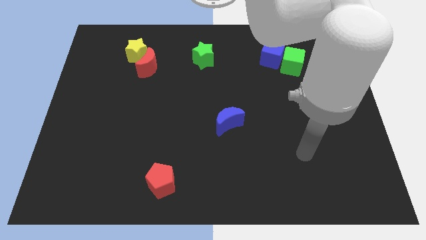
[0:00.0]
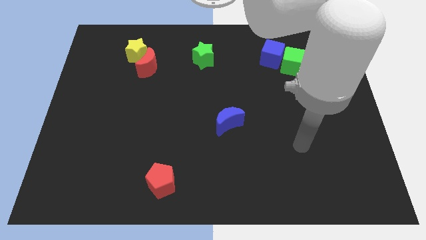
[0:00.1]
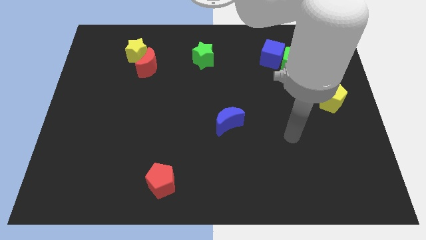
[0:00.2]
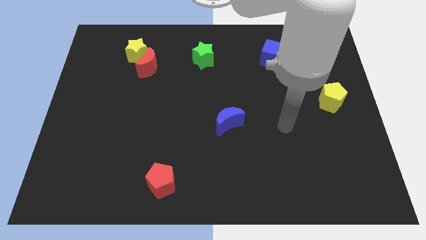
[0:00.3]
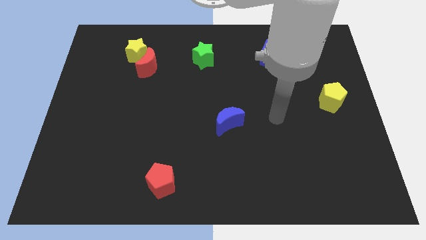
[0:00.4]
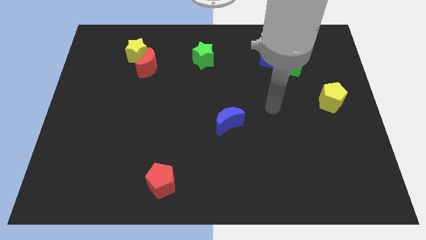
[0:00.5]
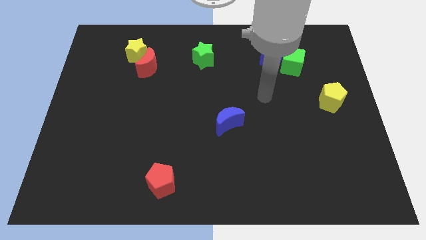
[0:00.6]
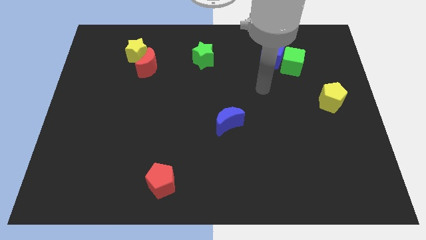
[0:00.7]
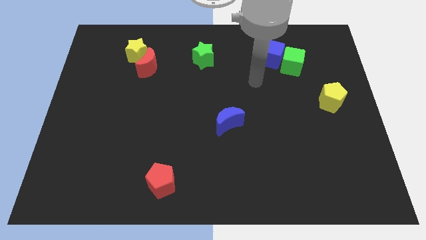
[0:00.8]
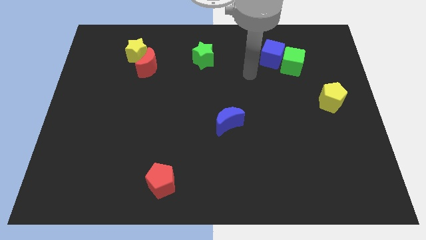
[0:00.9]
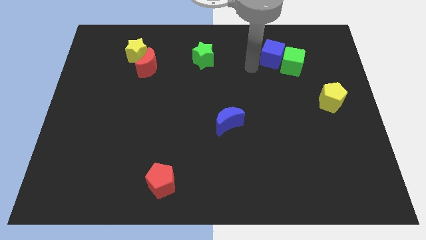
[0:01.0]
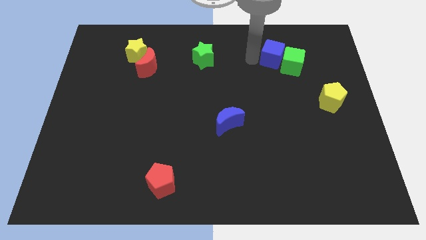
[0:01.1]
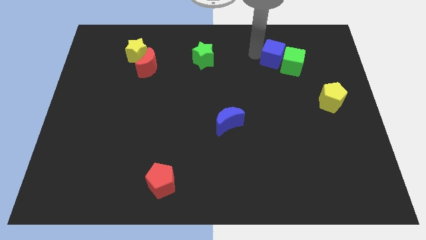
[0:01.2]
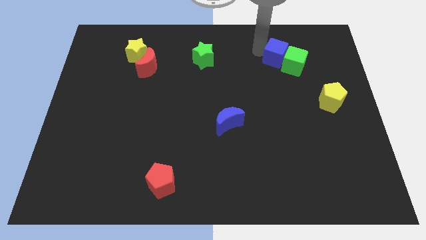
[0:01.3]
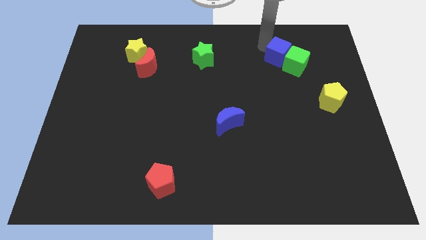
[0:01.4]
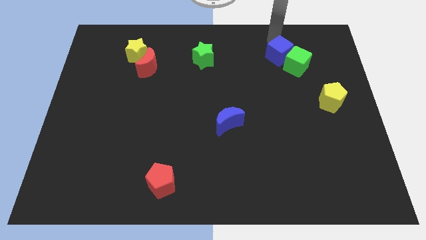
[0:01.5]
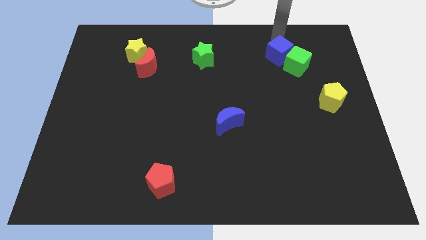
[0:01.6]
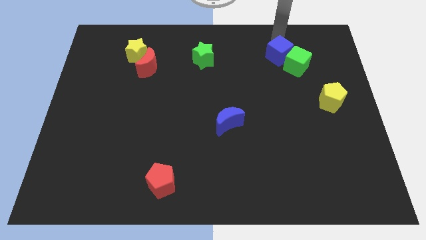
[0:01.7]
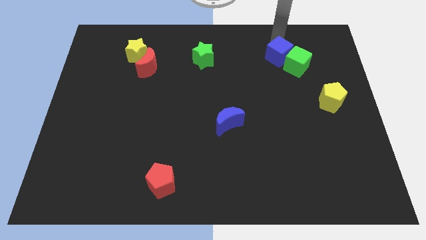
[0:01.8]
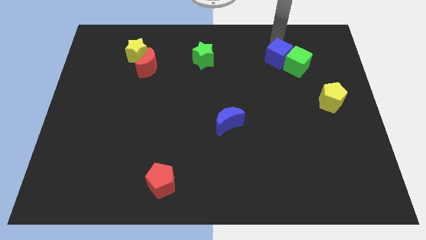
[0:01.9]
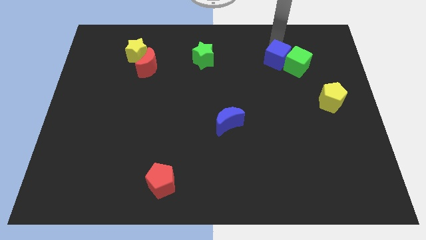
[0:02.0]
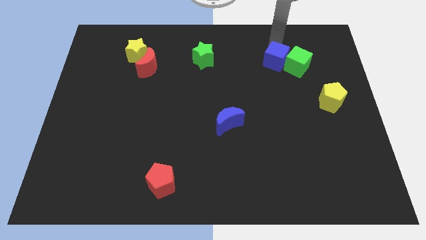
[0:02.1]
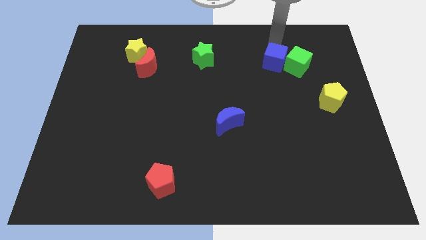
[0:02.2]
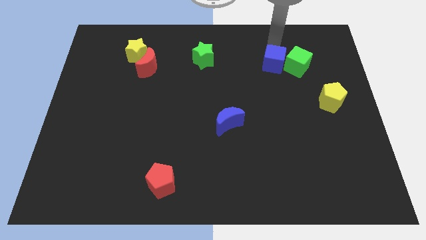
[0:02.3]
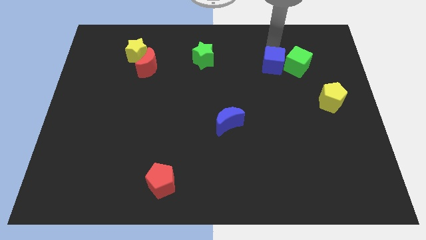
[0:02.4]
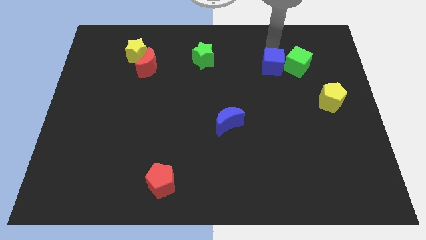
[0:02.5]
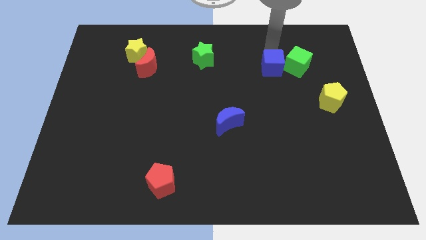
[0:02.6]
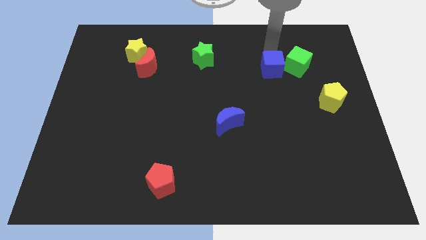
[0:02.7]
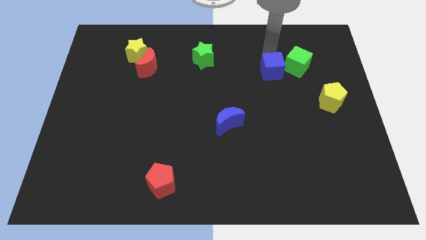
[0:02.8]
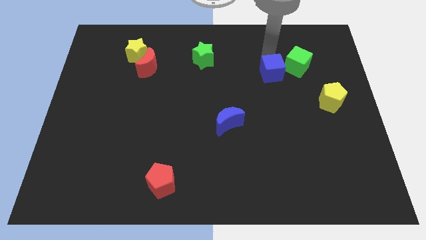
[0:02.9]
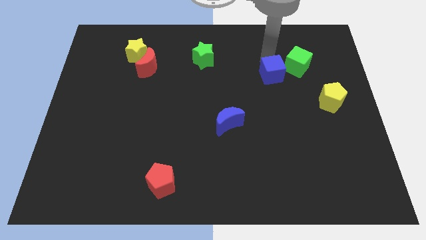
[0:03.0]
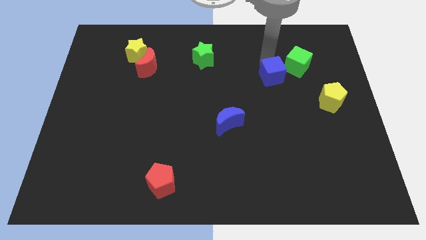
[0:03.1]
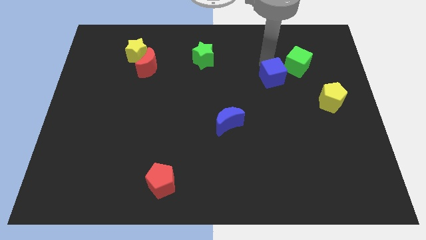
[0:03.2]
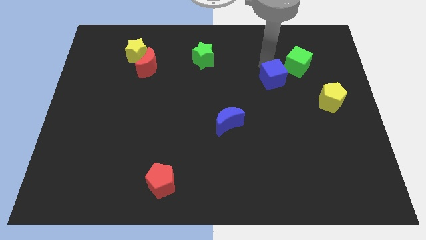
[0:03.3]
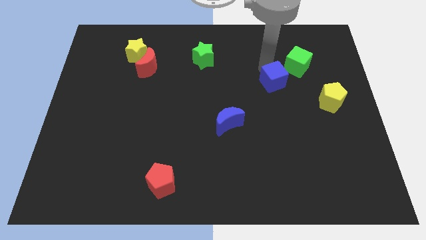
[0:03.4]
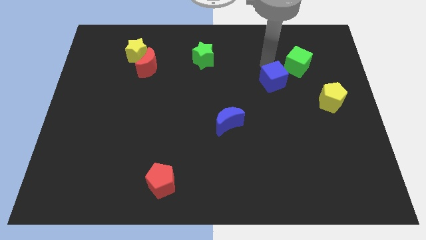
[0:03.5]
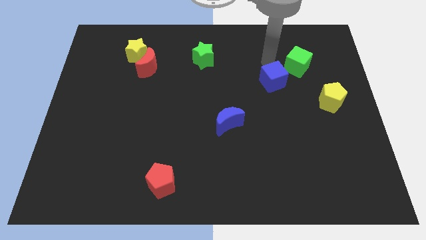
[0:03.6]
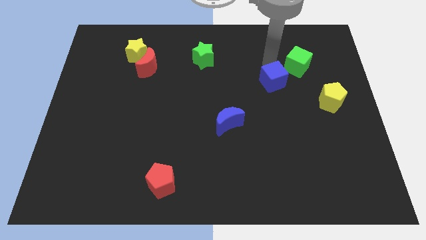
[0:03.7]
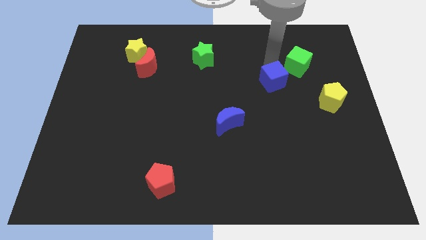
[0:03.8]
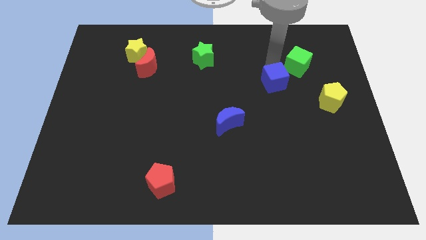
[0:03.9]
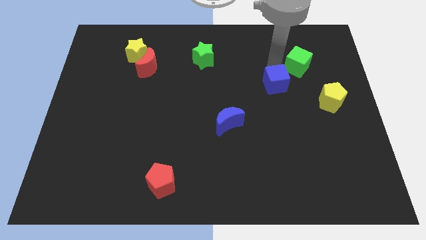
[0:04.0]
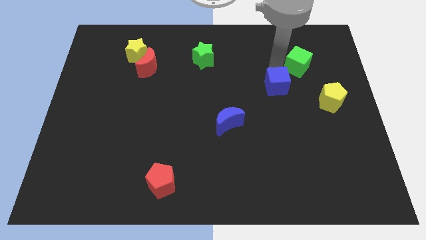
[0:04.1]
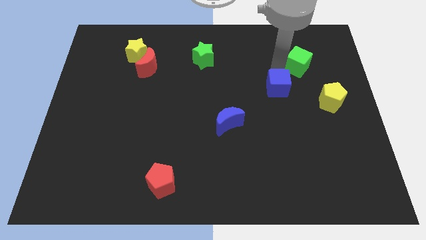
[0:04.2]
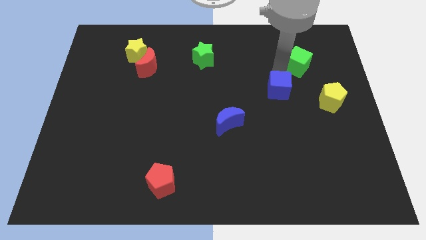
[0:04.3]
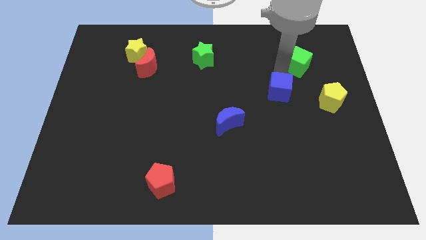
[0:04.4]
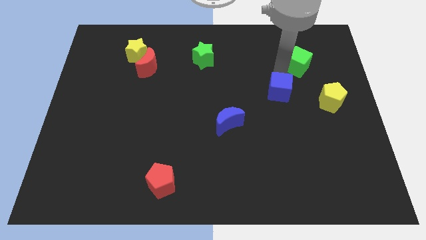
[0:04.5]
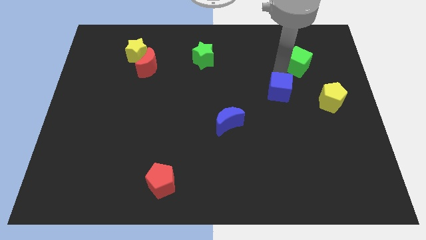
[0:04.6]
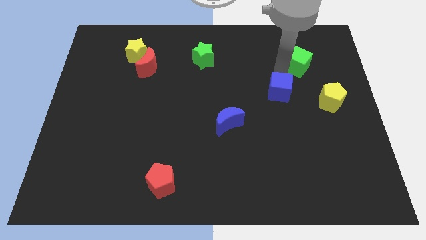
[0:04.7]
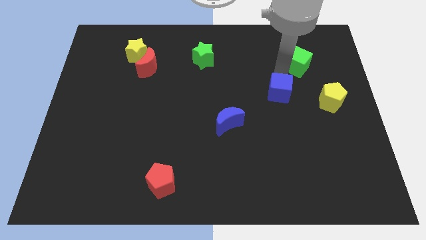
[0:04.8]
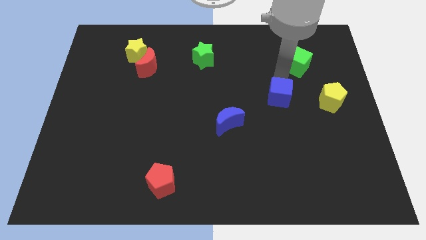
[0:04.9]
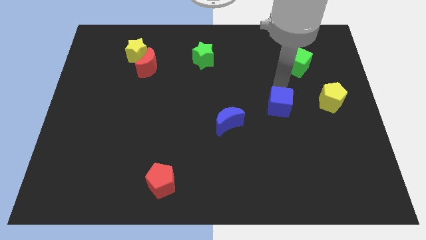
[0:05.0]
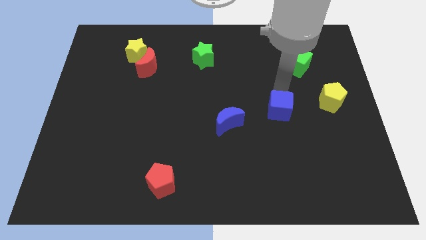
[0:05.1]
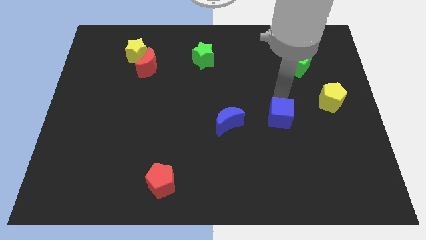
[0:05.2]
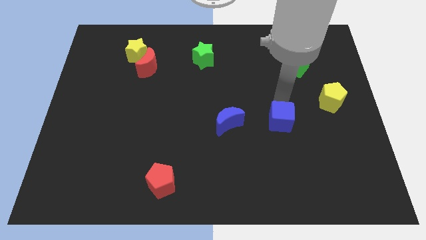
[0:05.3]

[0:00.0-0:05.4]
slide the blue cube down

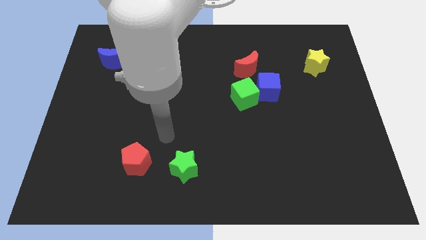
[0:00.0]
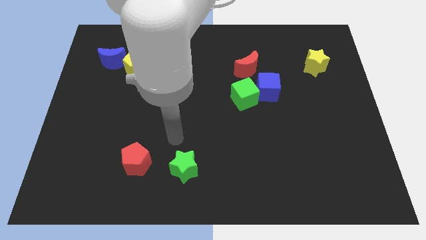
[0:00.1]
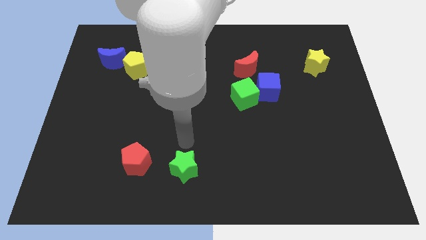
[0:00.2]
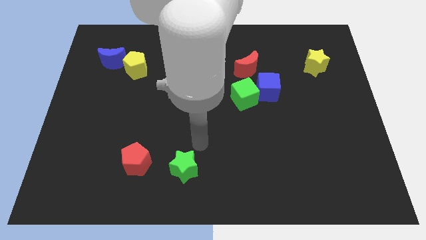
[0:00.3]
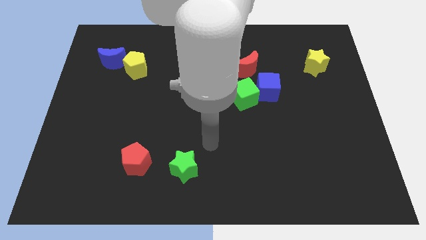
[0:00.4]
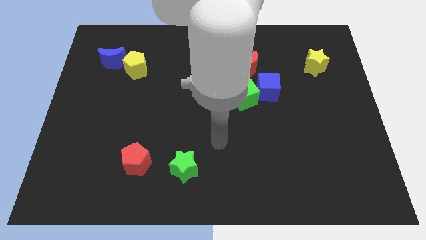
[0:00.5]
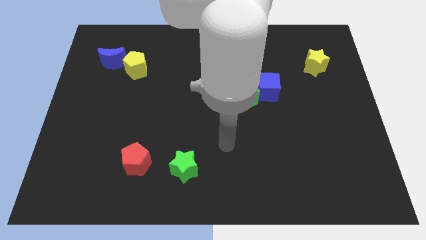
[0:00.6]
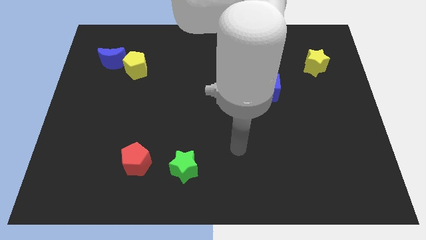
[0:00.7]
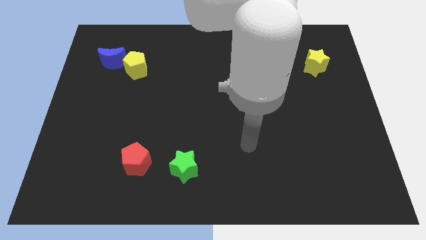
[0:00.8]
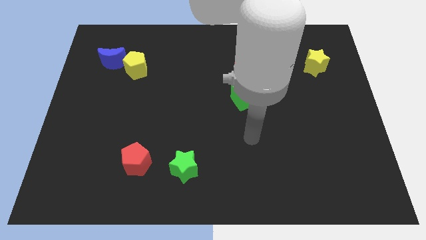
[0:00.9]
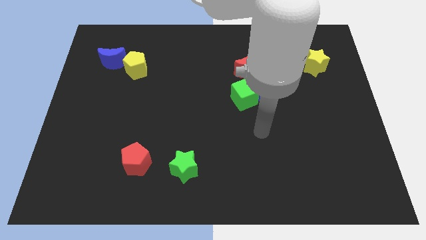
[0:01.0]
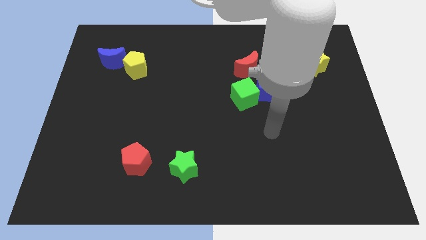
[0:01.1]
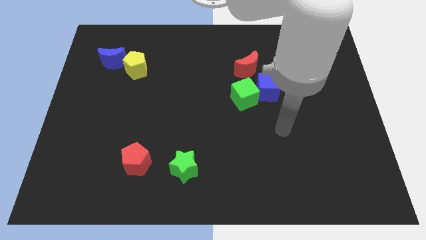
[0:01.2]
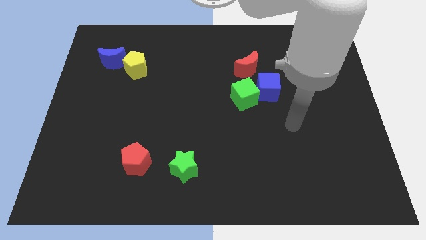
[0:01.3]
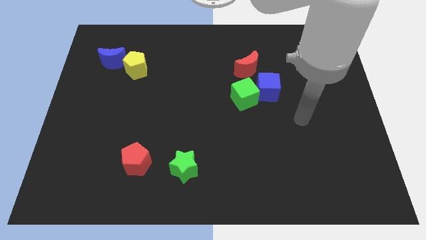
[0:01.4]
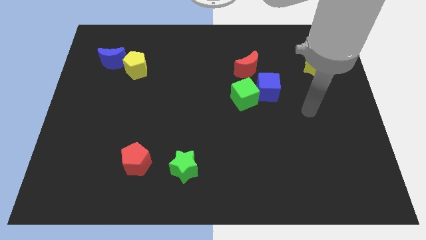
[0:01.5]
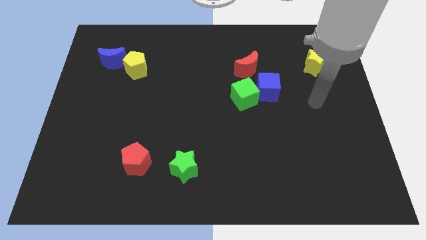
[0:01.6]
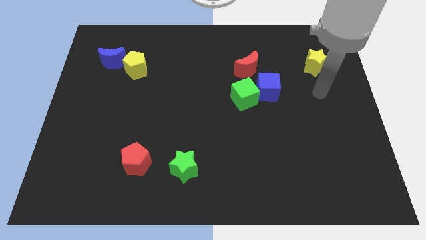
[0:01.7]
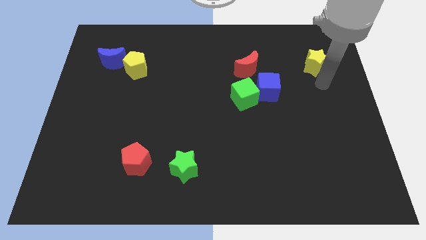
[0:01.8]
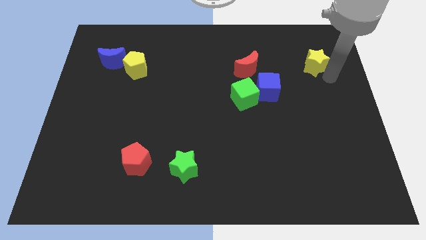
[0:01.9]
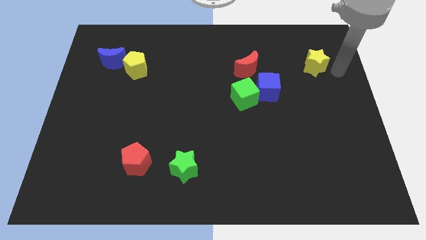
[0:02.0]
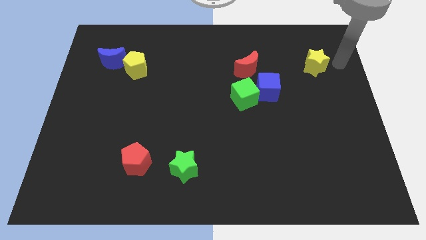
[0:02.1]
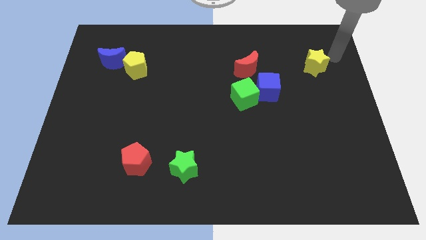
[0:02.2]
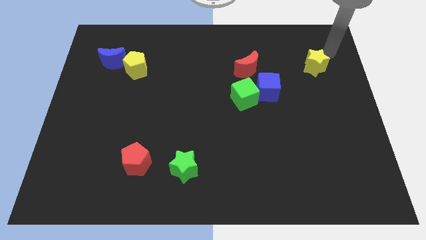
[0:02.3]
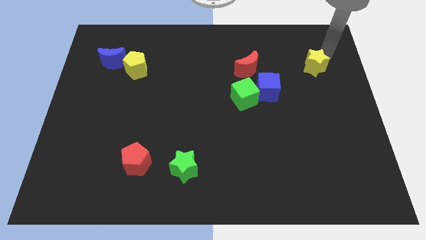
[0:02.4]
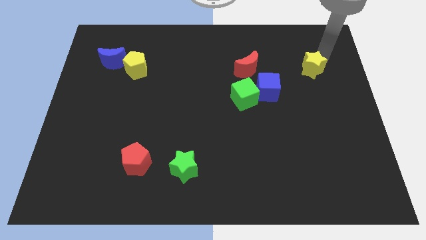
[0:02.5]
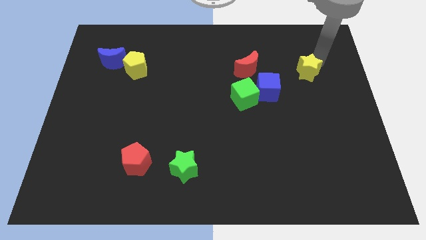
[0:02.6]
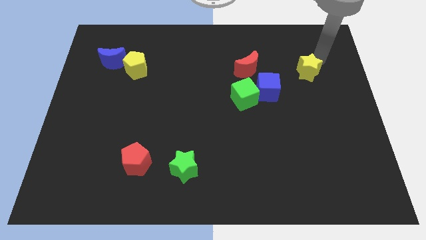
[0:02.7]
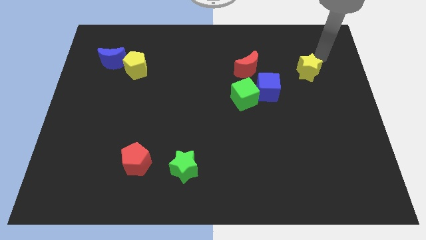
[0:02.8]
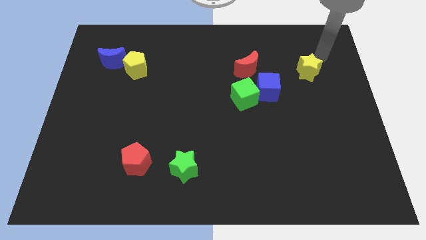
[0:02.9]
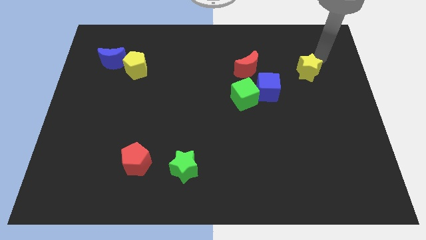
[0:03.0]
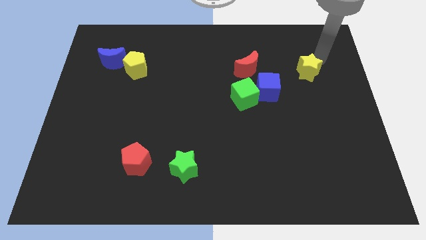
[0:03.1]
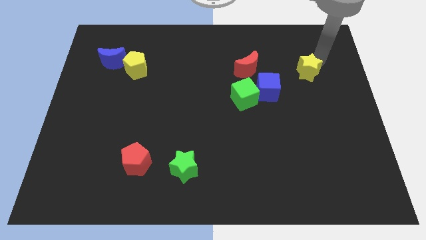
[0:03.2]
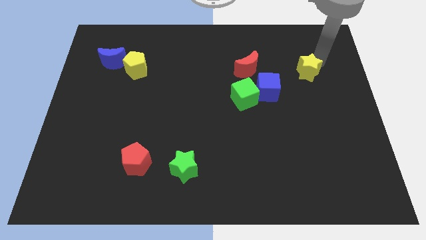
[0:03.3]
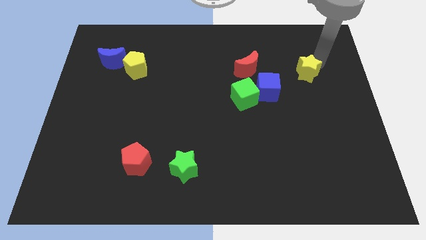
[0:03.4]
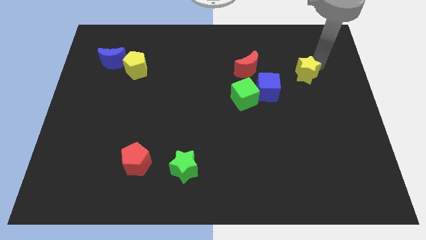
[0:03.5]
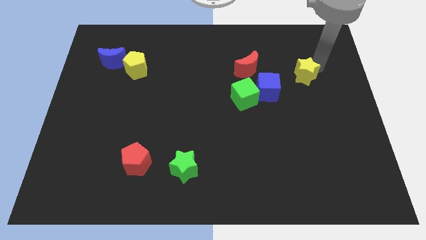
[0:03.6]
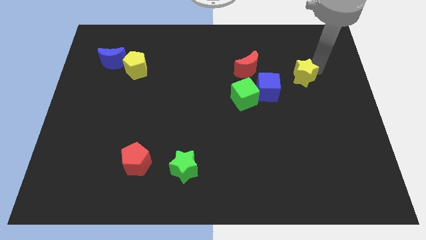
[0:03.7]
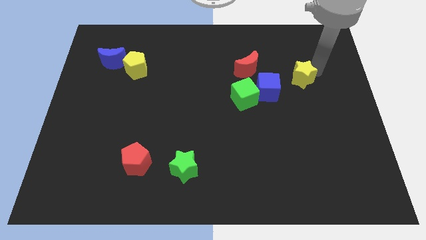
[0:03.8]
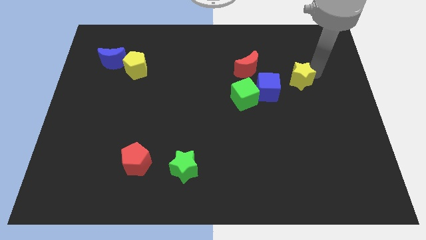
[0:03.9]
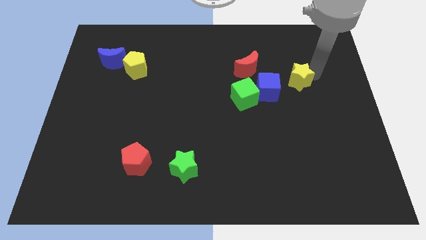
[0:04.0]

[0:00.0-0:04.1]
move the yellow star a bit diagonally downwards and left
